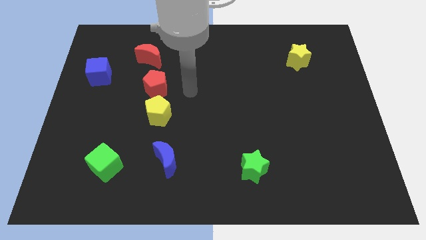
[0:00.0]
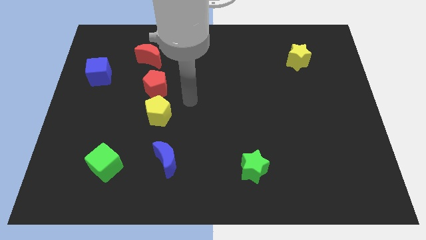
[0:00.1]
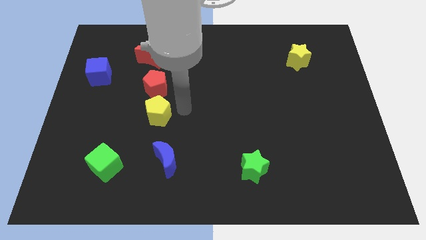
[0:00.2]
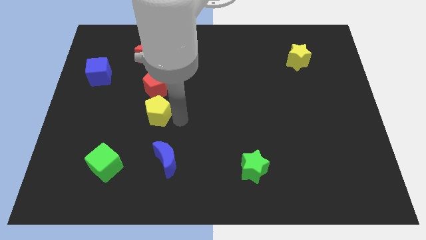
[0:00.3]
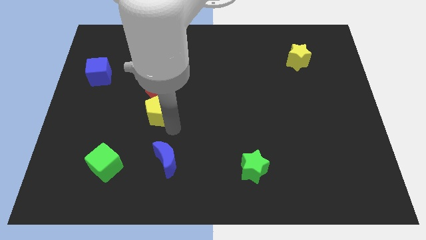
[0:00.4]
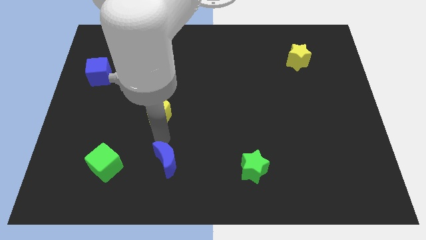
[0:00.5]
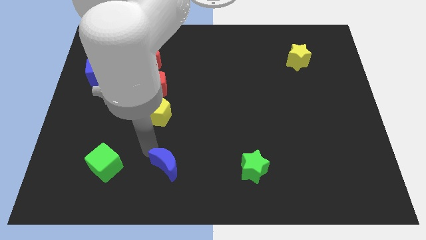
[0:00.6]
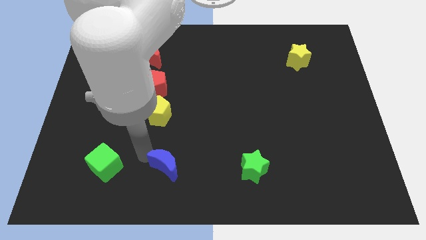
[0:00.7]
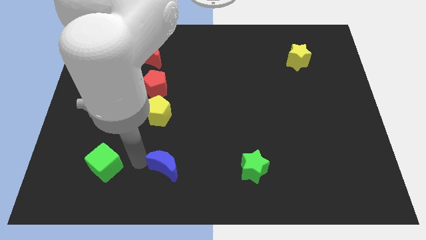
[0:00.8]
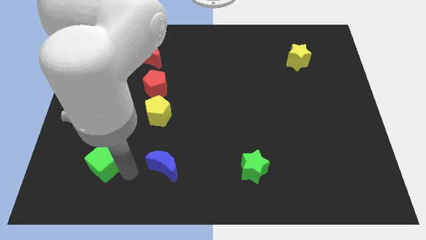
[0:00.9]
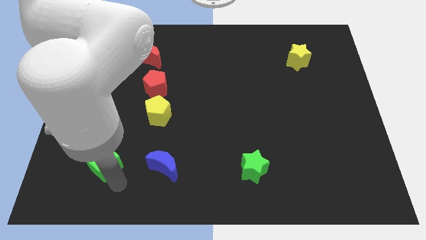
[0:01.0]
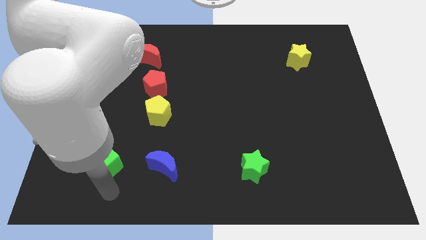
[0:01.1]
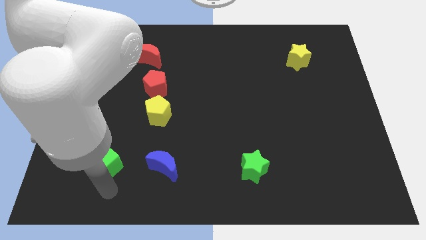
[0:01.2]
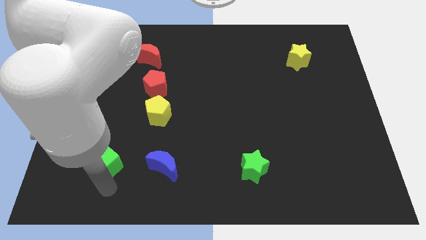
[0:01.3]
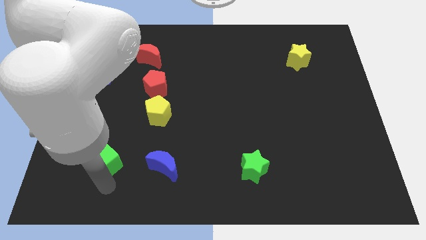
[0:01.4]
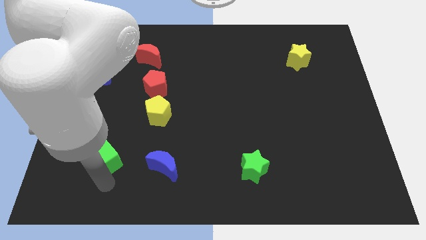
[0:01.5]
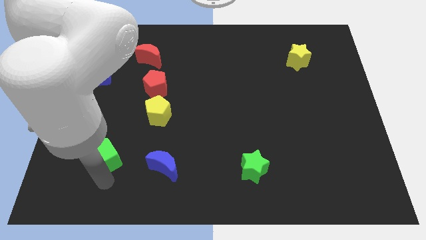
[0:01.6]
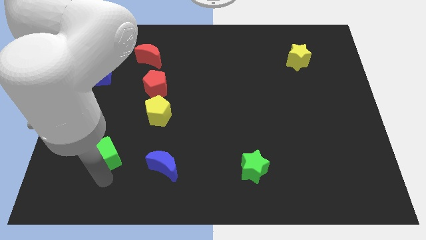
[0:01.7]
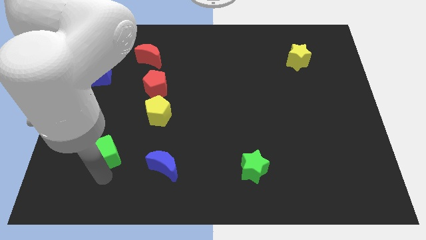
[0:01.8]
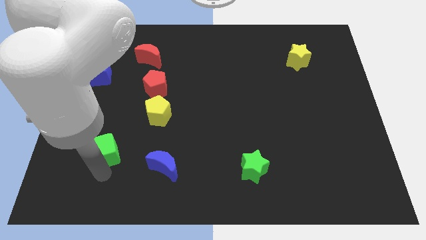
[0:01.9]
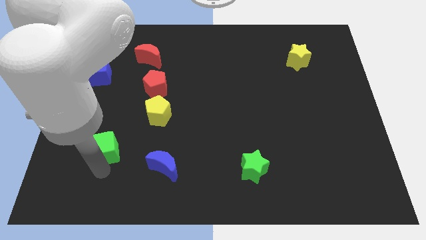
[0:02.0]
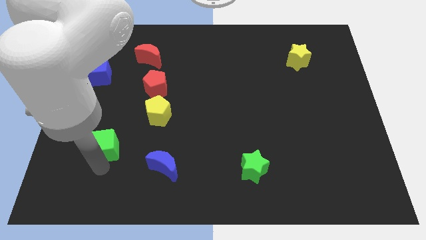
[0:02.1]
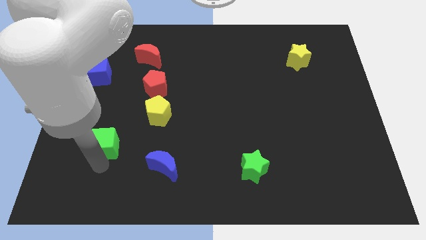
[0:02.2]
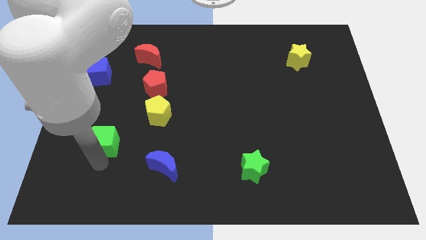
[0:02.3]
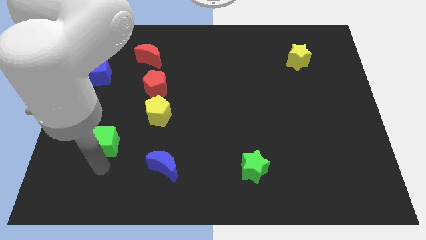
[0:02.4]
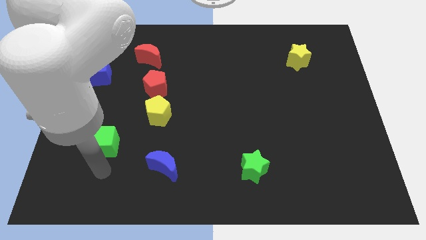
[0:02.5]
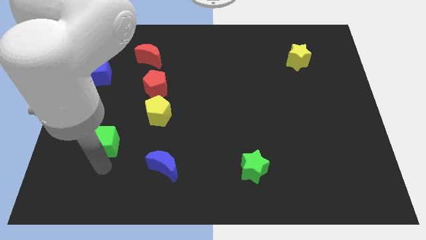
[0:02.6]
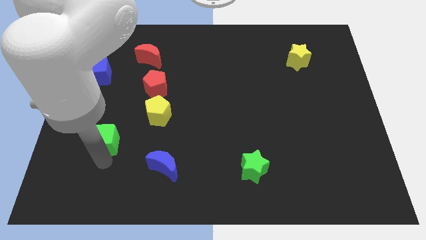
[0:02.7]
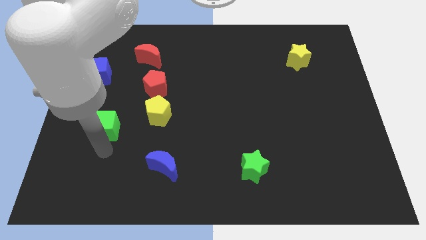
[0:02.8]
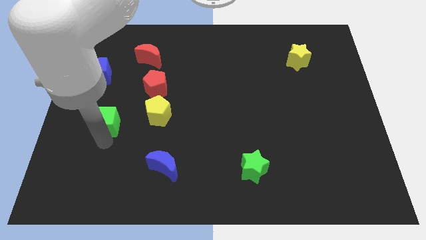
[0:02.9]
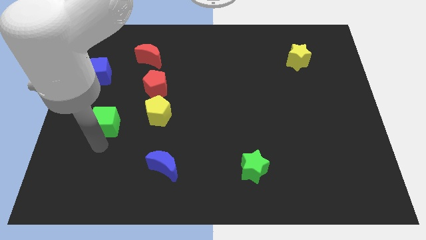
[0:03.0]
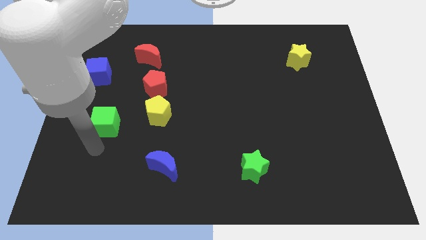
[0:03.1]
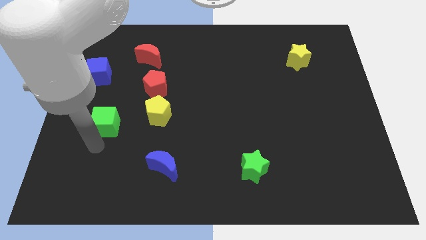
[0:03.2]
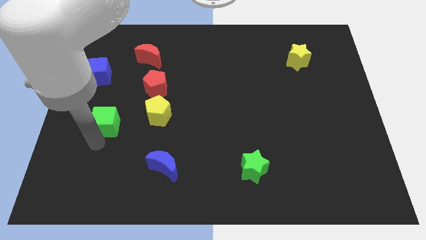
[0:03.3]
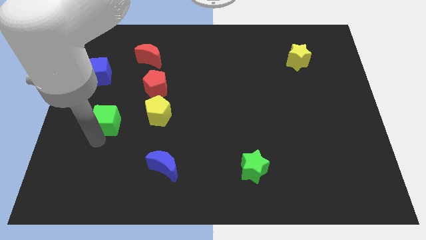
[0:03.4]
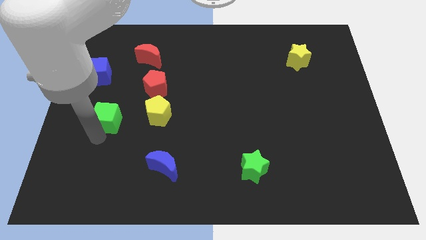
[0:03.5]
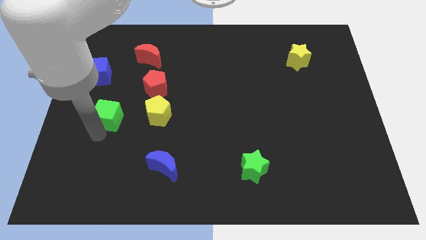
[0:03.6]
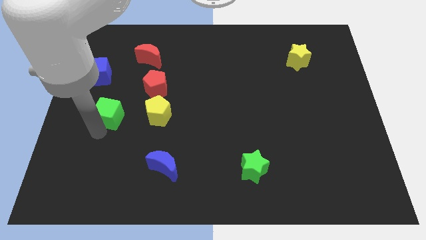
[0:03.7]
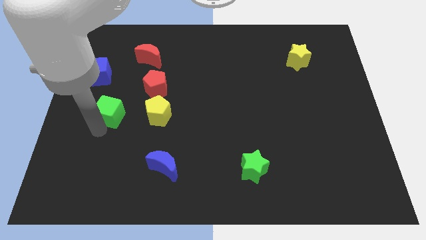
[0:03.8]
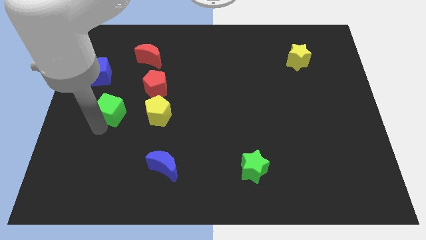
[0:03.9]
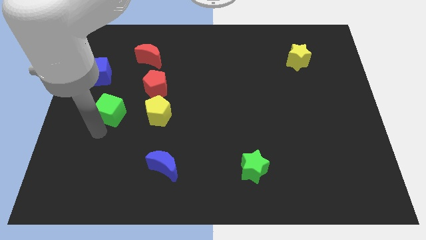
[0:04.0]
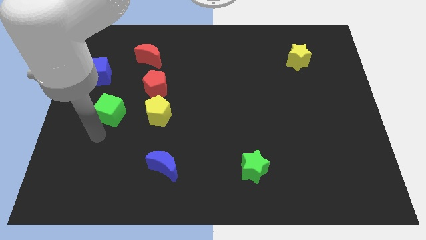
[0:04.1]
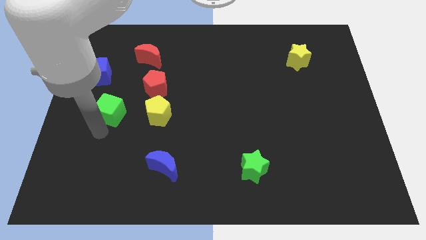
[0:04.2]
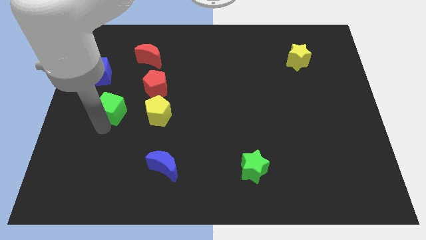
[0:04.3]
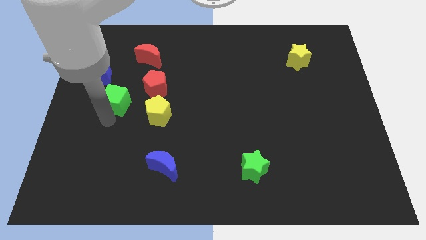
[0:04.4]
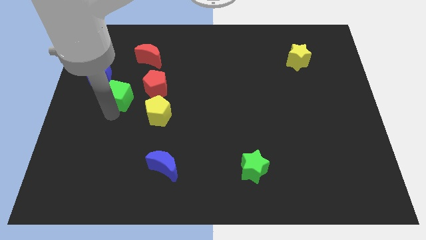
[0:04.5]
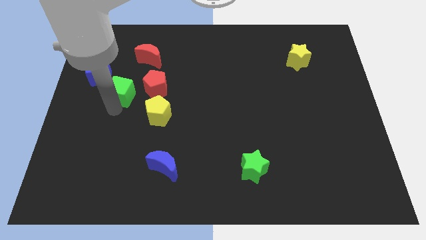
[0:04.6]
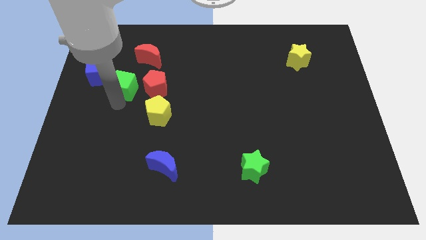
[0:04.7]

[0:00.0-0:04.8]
push the green cube to the bottom left side of the red moon

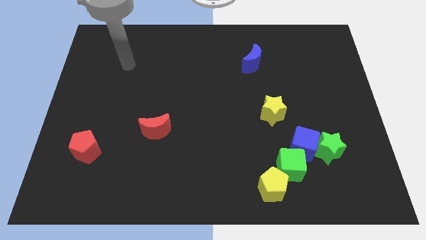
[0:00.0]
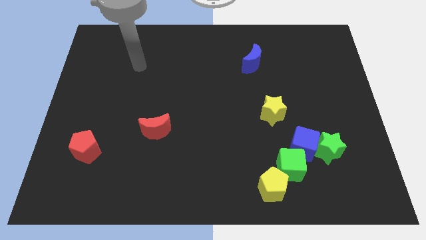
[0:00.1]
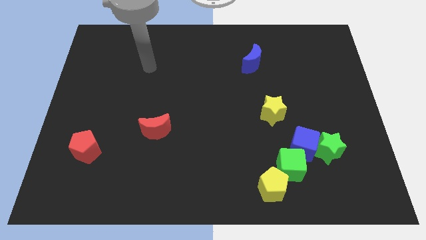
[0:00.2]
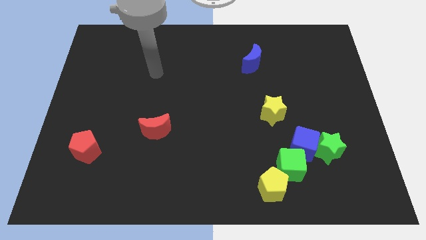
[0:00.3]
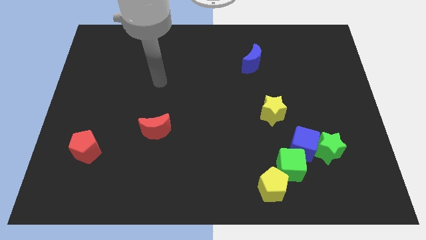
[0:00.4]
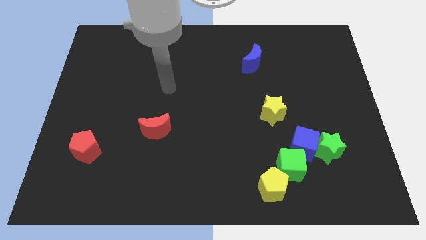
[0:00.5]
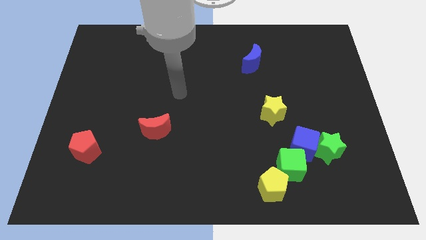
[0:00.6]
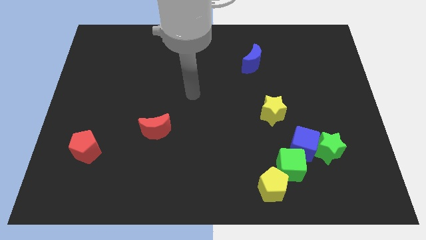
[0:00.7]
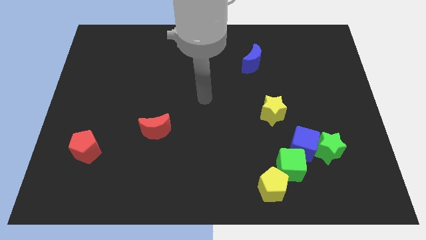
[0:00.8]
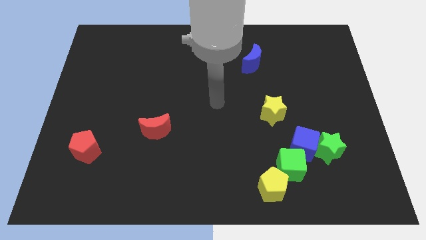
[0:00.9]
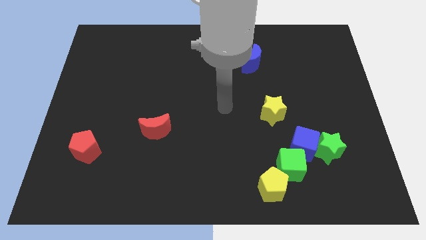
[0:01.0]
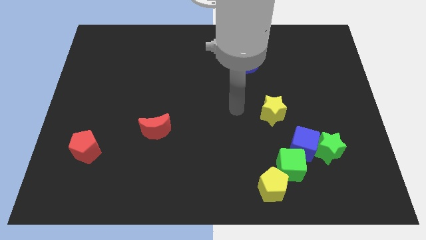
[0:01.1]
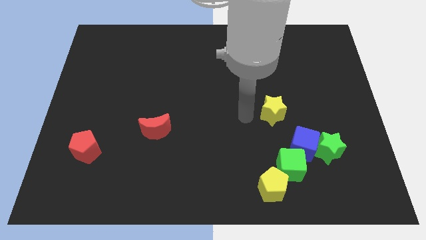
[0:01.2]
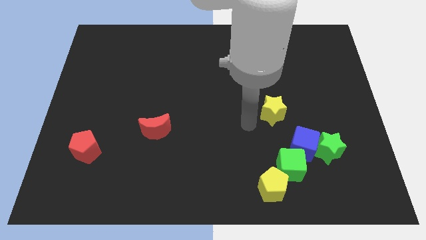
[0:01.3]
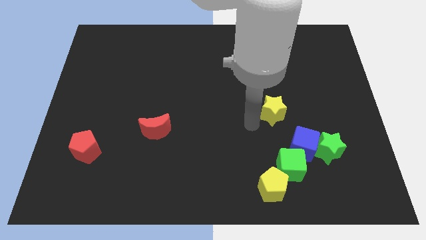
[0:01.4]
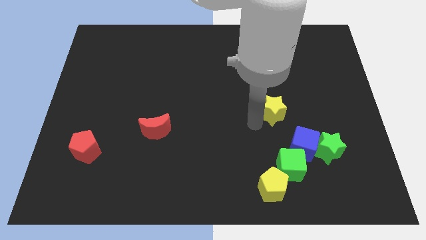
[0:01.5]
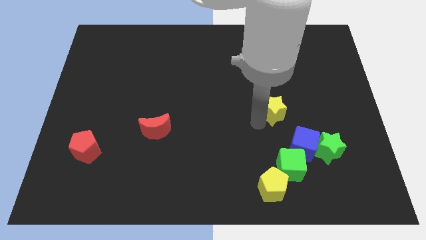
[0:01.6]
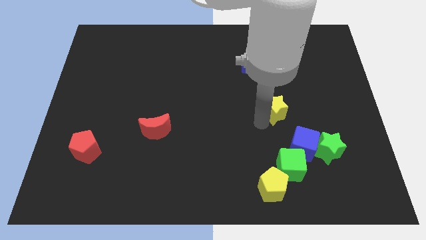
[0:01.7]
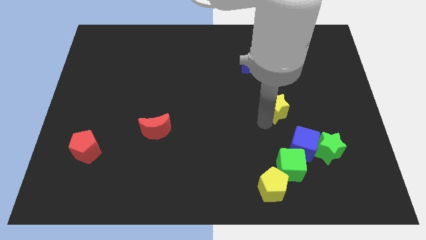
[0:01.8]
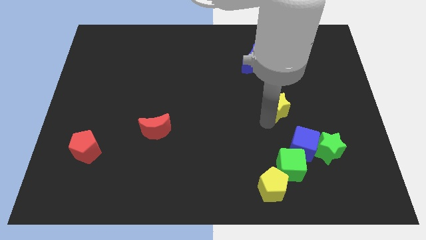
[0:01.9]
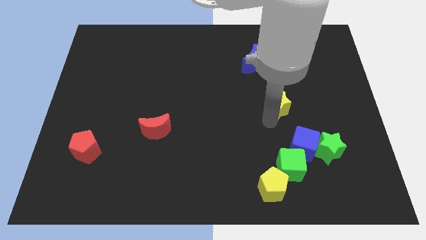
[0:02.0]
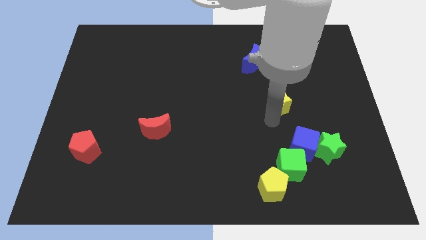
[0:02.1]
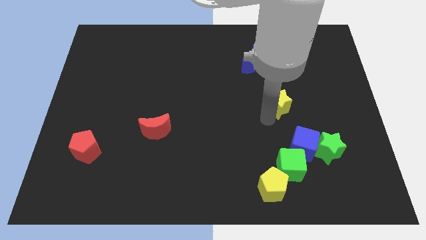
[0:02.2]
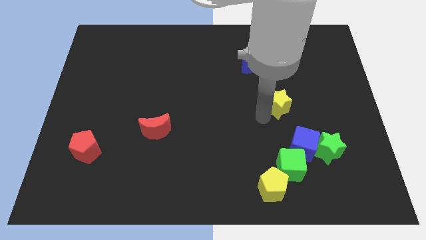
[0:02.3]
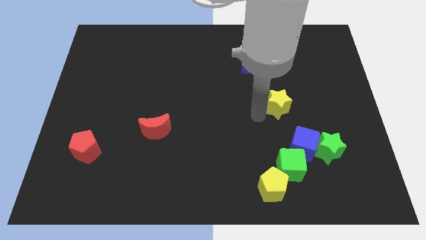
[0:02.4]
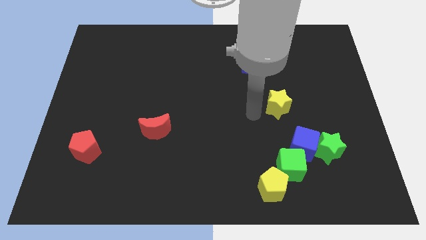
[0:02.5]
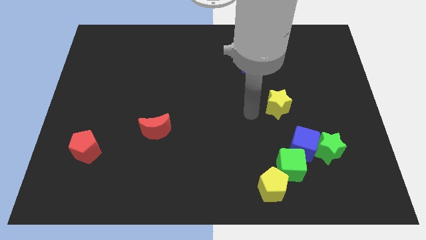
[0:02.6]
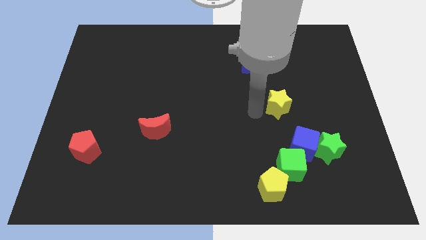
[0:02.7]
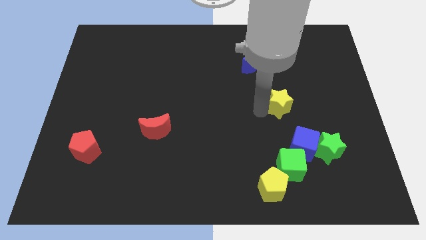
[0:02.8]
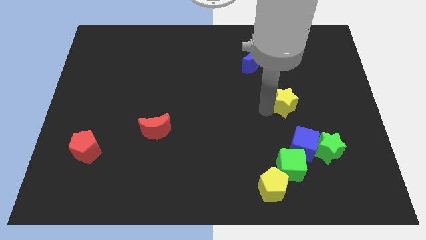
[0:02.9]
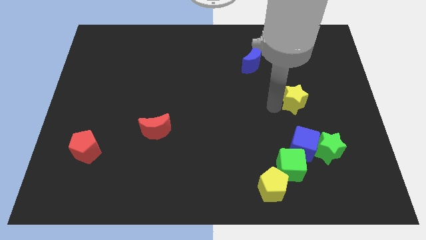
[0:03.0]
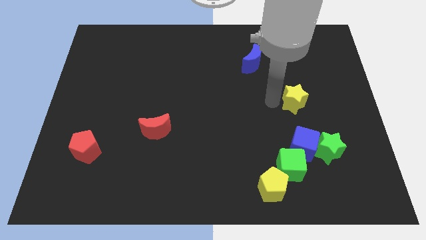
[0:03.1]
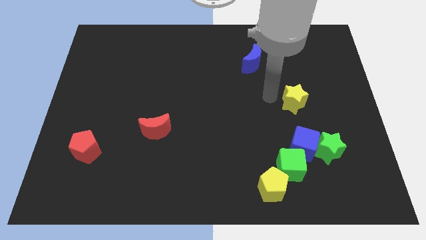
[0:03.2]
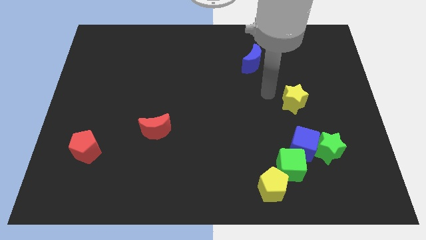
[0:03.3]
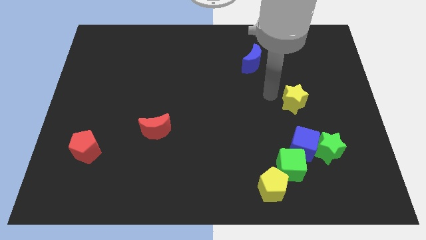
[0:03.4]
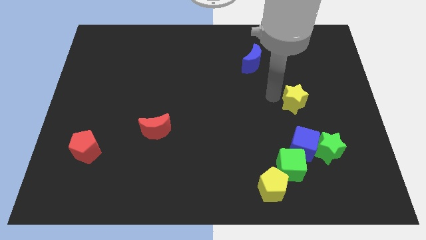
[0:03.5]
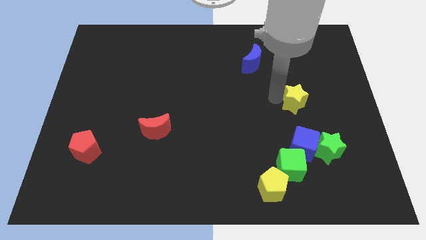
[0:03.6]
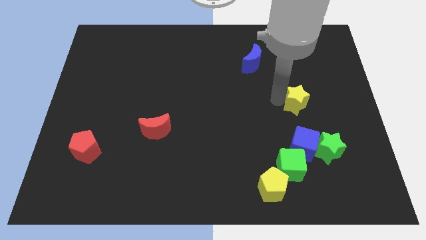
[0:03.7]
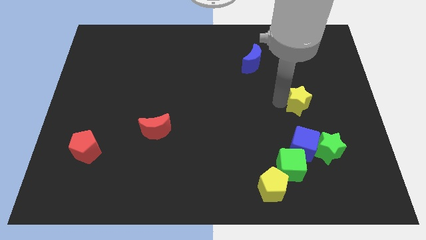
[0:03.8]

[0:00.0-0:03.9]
move the yellow star to the top side of the green star
